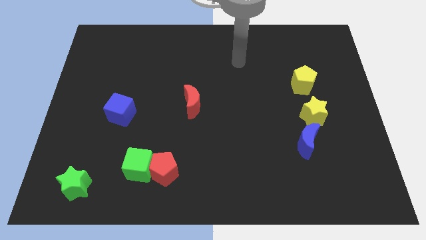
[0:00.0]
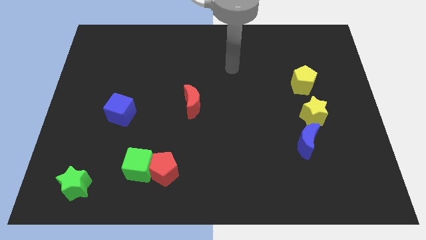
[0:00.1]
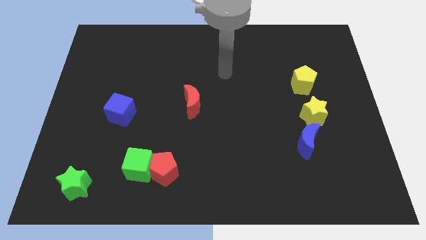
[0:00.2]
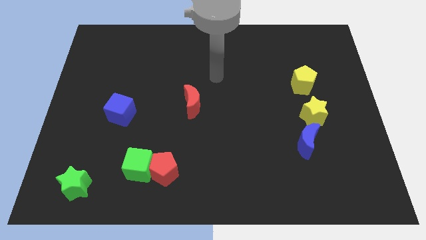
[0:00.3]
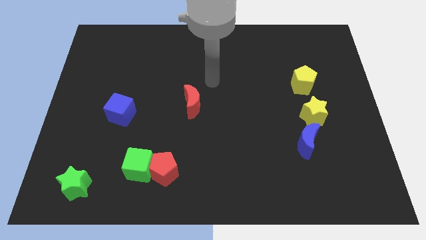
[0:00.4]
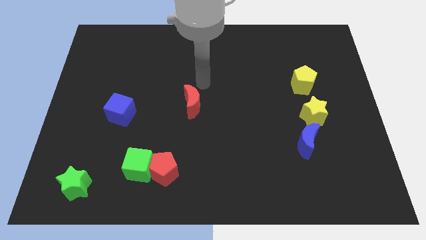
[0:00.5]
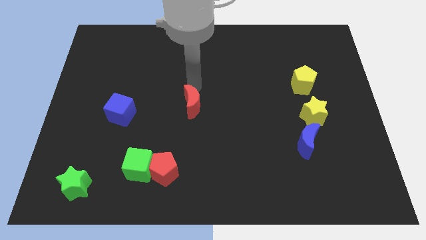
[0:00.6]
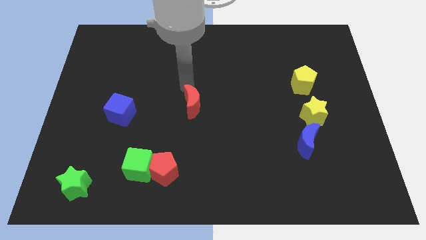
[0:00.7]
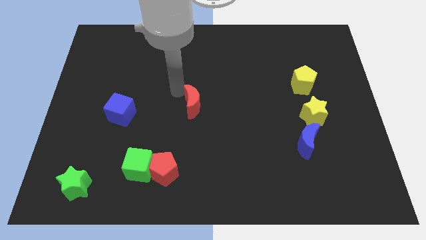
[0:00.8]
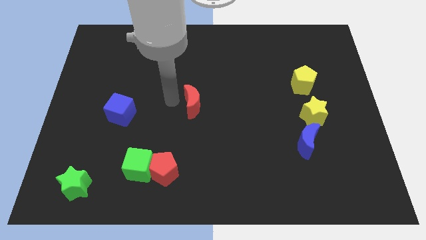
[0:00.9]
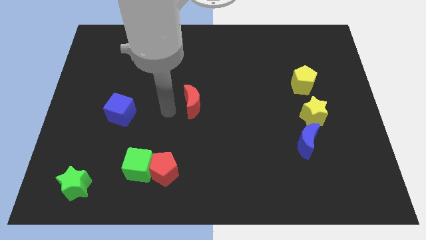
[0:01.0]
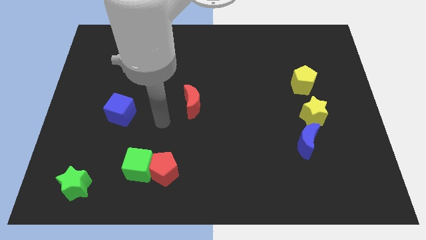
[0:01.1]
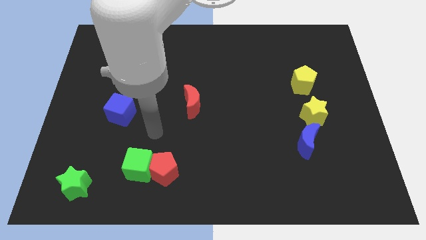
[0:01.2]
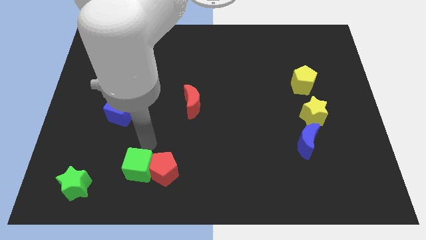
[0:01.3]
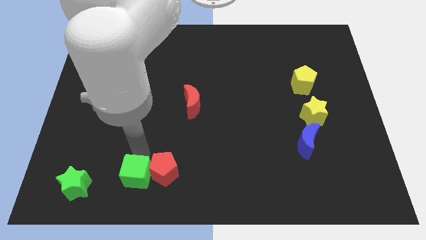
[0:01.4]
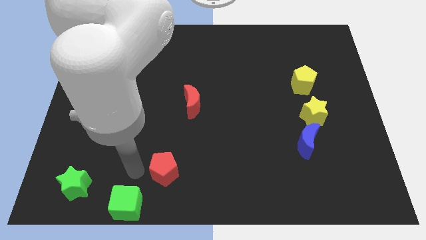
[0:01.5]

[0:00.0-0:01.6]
separate the red pentagon from the green cube

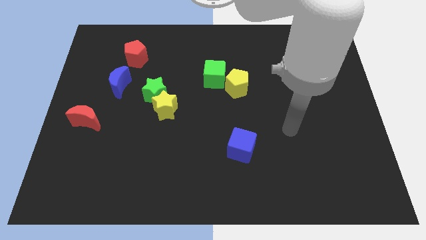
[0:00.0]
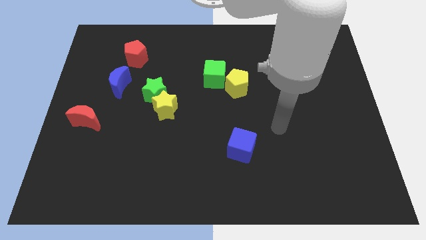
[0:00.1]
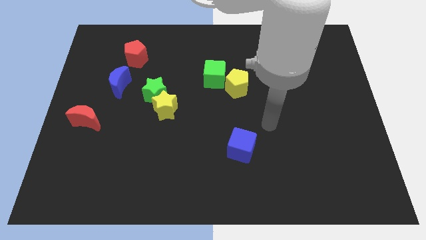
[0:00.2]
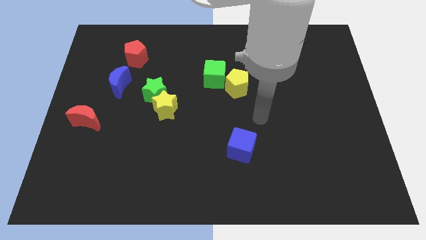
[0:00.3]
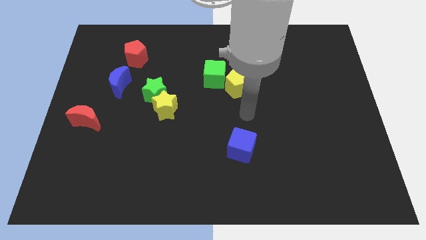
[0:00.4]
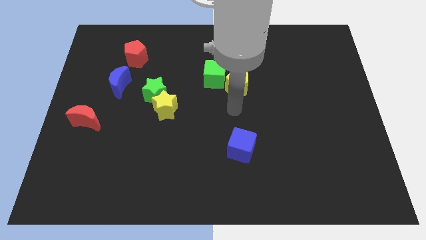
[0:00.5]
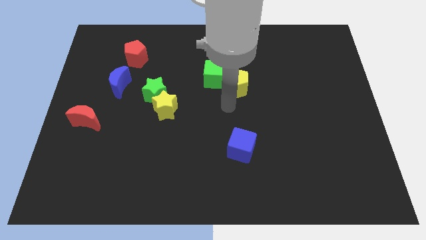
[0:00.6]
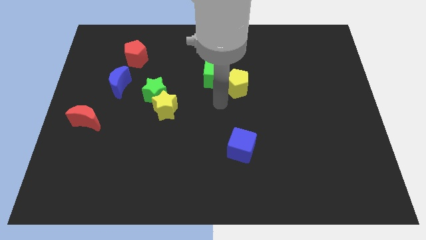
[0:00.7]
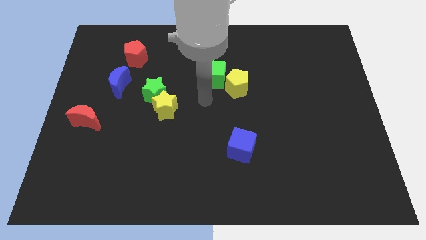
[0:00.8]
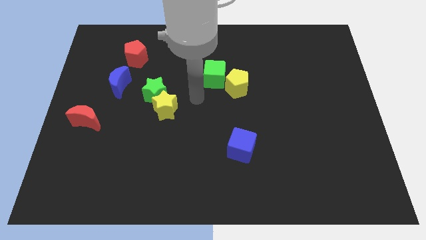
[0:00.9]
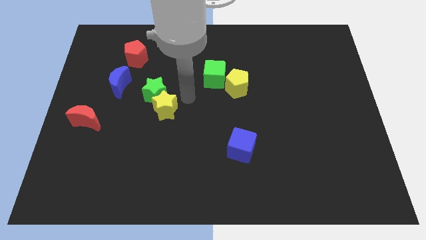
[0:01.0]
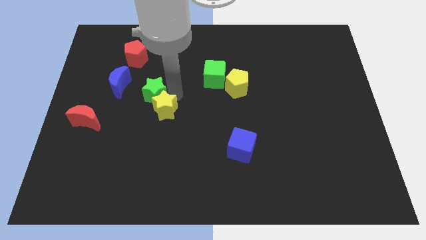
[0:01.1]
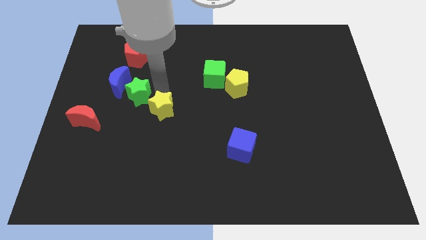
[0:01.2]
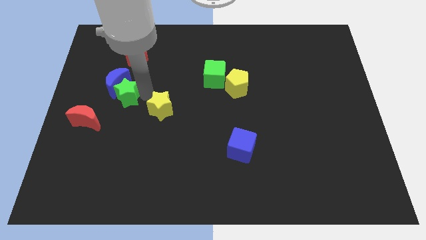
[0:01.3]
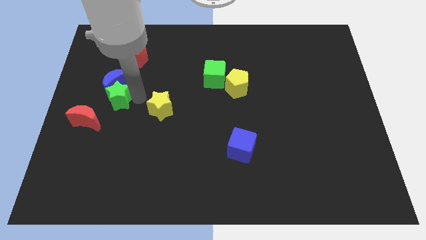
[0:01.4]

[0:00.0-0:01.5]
pull the yellow star apart from the green star

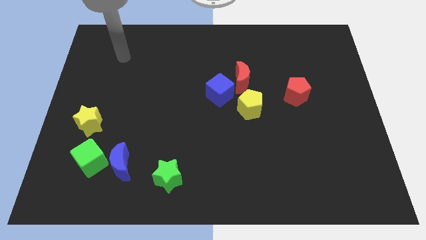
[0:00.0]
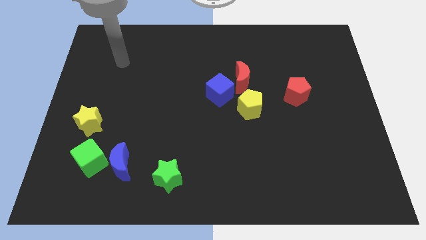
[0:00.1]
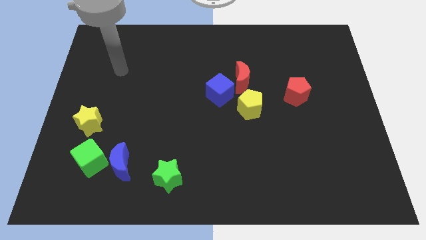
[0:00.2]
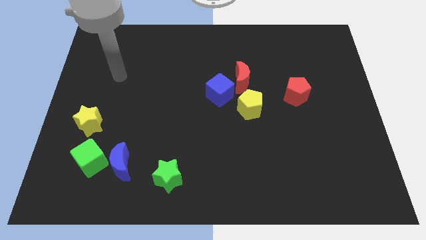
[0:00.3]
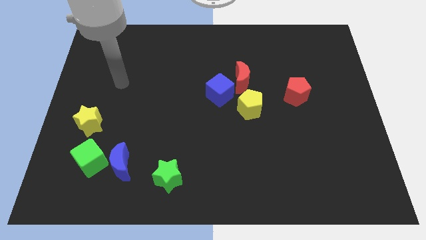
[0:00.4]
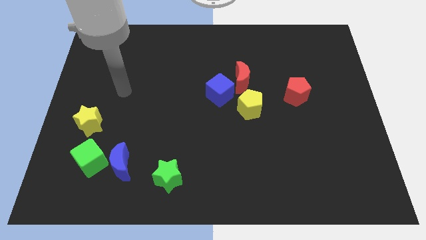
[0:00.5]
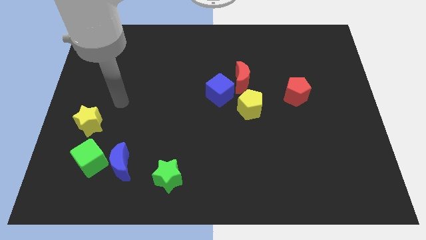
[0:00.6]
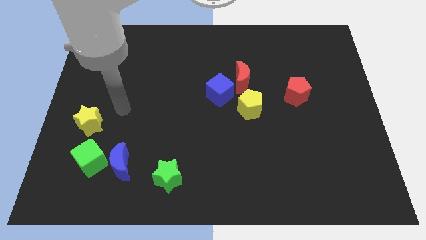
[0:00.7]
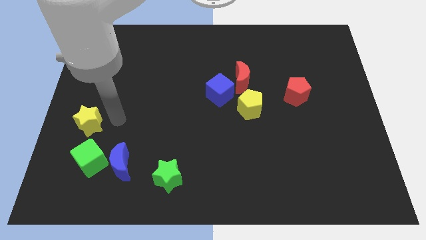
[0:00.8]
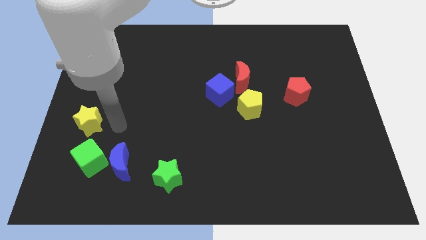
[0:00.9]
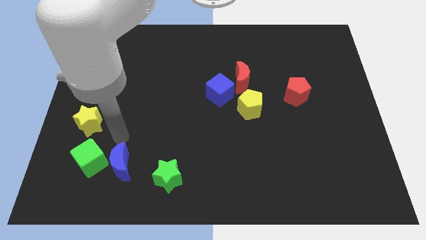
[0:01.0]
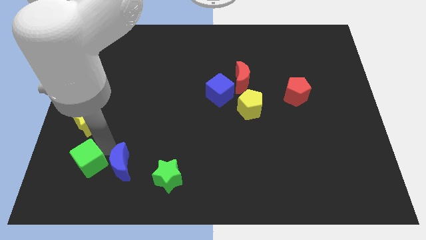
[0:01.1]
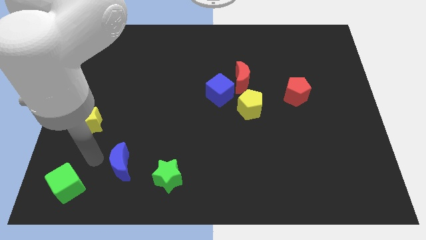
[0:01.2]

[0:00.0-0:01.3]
separate the blue moon from the green cube

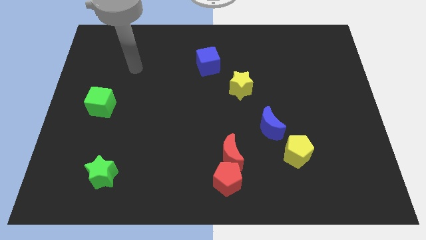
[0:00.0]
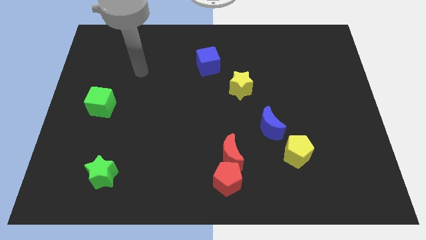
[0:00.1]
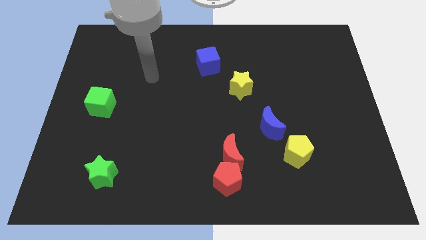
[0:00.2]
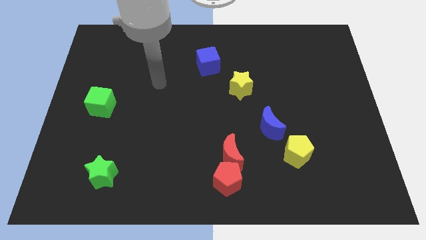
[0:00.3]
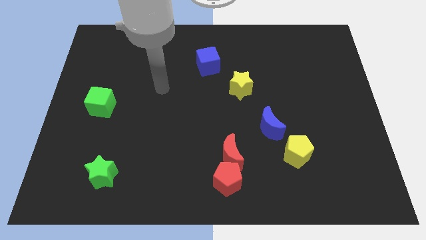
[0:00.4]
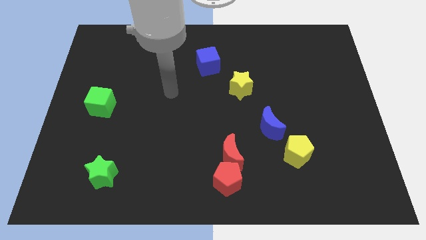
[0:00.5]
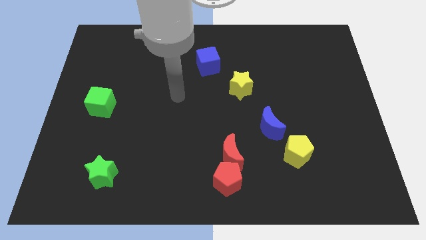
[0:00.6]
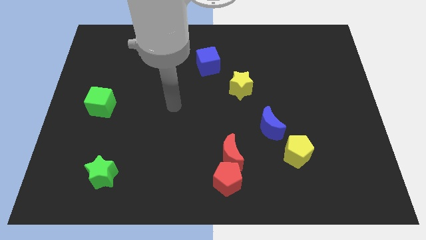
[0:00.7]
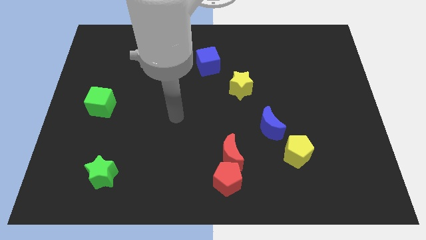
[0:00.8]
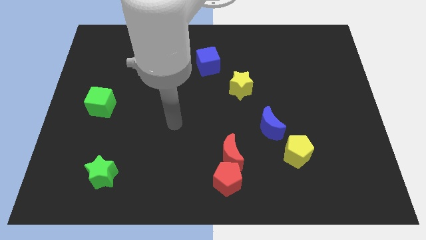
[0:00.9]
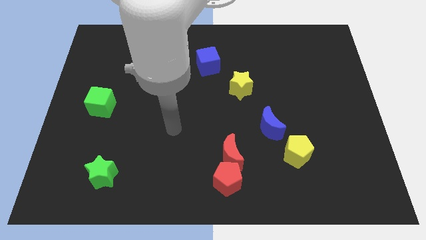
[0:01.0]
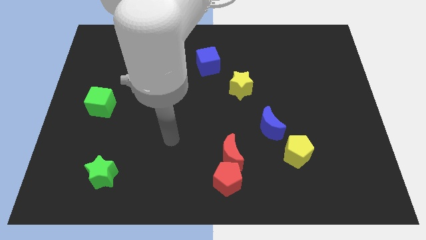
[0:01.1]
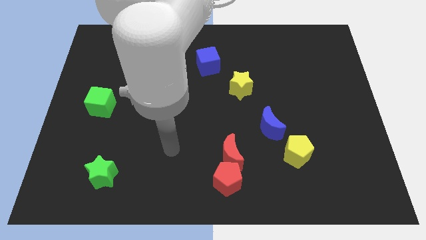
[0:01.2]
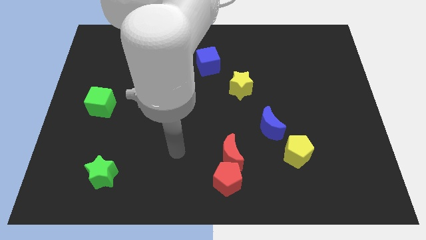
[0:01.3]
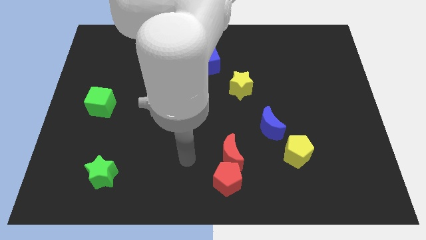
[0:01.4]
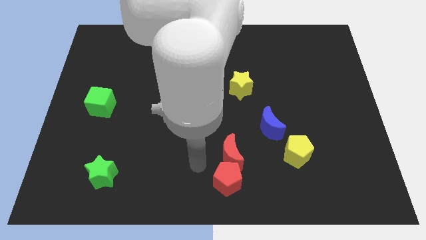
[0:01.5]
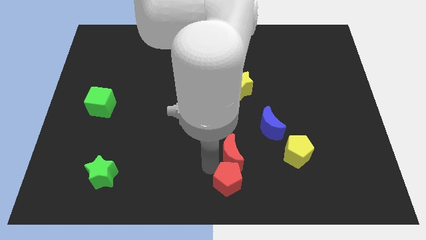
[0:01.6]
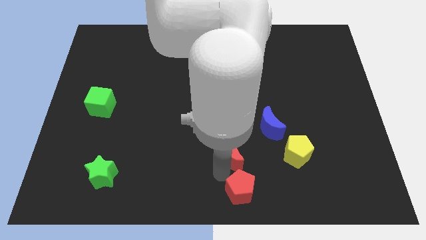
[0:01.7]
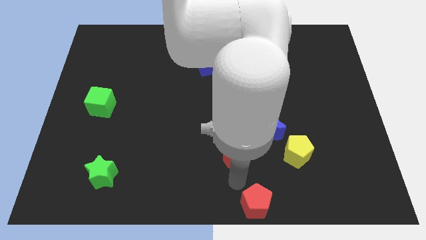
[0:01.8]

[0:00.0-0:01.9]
move the red moon away from the red pentagon

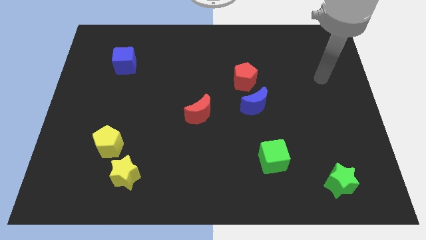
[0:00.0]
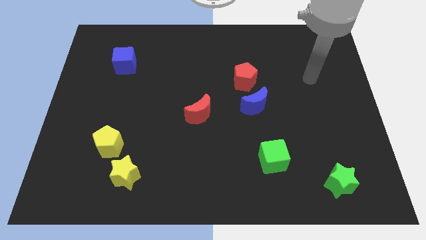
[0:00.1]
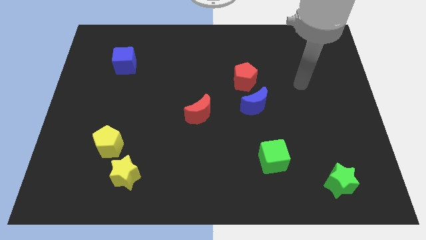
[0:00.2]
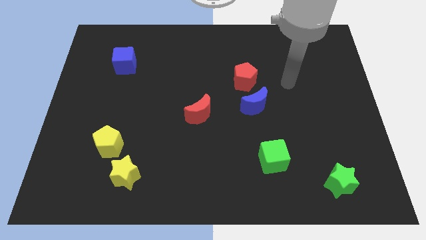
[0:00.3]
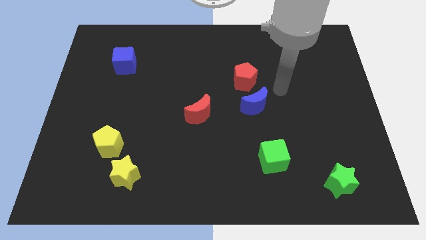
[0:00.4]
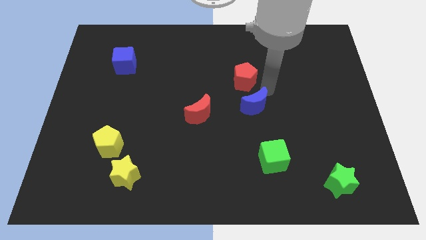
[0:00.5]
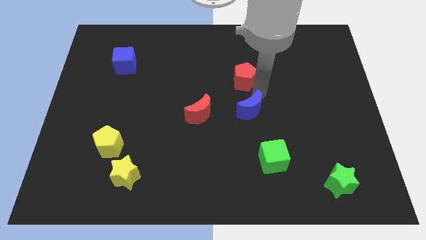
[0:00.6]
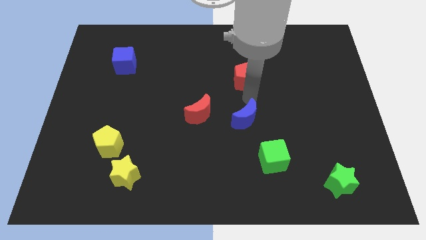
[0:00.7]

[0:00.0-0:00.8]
move the red pentagon away from the blue moon

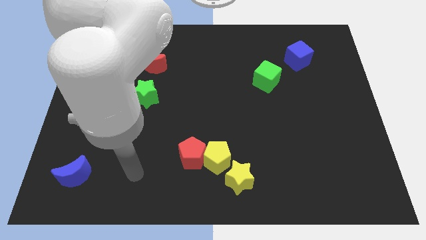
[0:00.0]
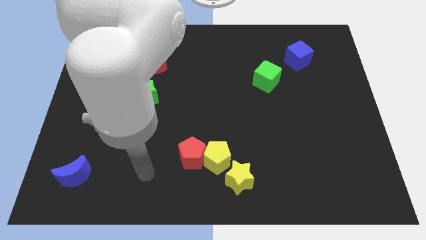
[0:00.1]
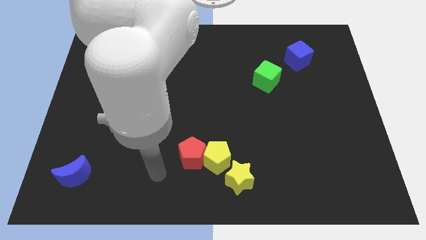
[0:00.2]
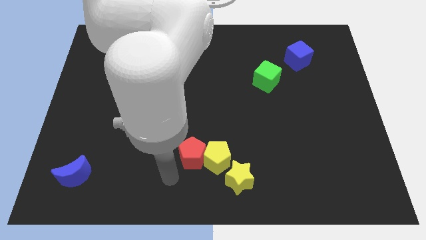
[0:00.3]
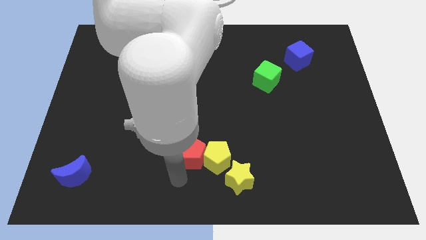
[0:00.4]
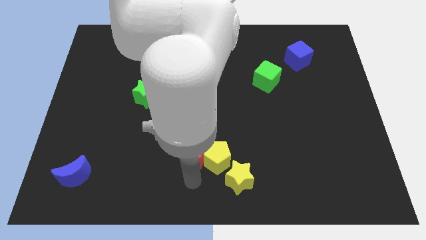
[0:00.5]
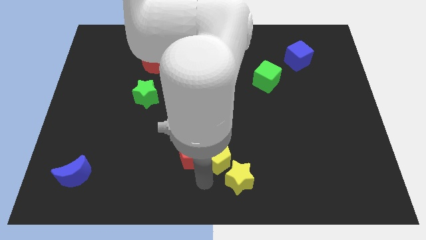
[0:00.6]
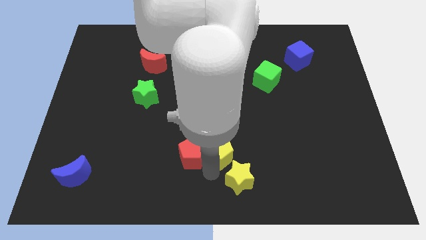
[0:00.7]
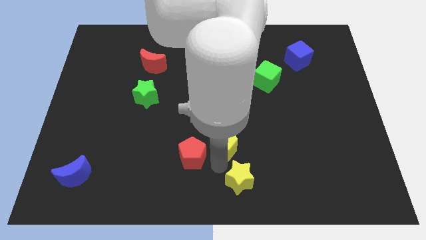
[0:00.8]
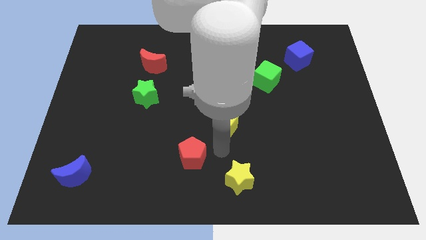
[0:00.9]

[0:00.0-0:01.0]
pull the red pentagon apart from the yellow pentagon

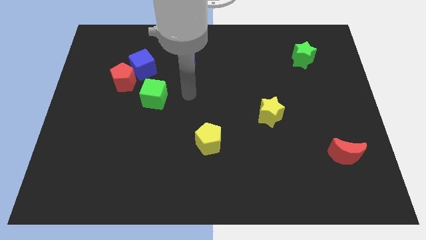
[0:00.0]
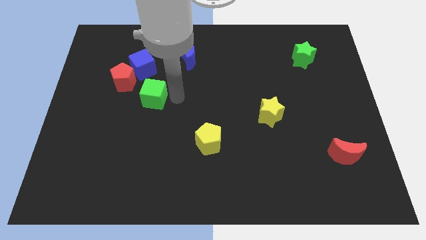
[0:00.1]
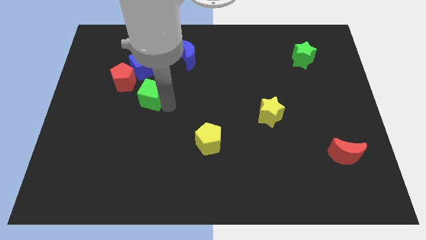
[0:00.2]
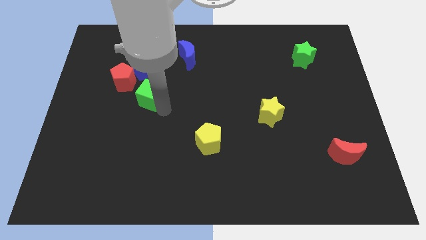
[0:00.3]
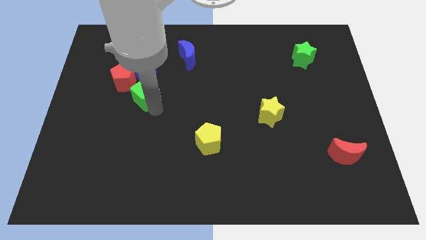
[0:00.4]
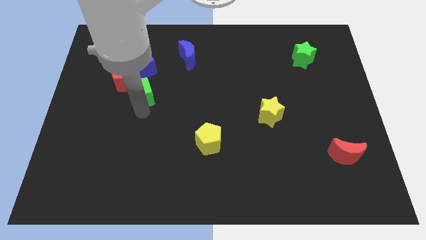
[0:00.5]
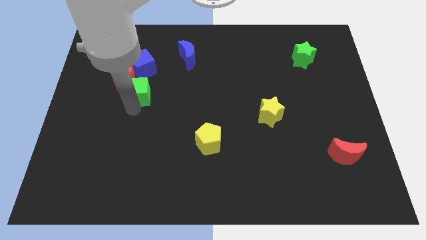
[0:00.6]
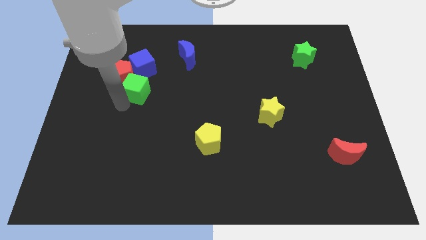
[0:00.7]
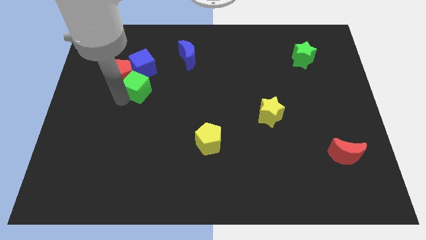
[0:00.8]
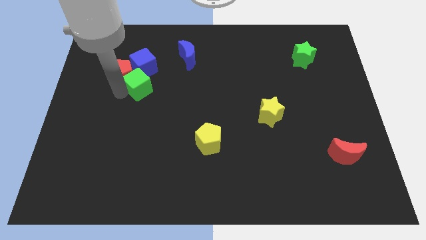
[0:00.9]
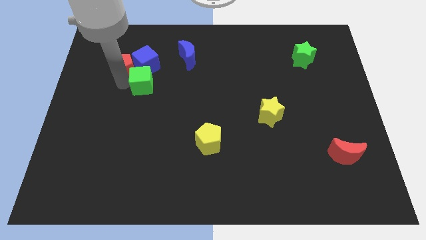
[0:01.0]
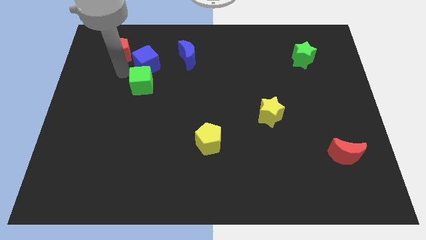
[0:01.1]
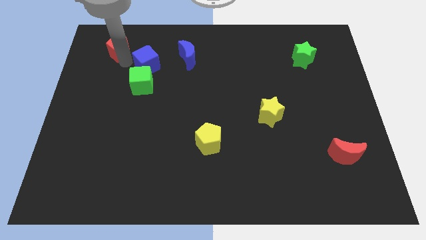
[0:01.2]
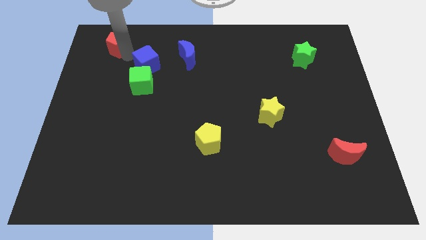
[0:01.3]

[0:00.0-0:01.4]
move the blue cube away from the red pentagon
